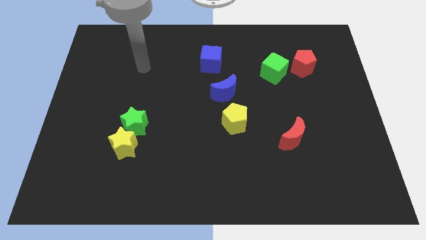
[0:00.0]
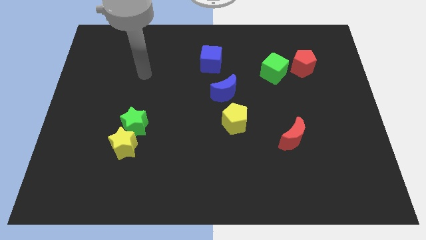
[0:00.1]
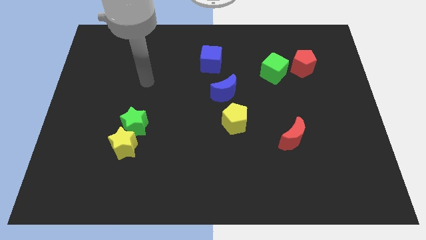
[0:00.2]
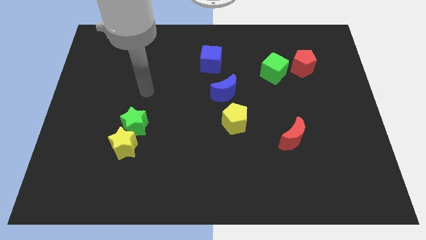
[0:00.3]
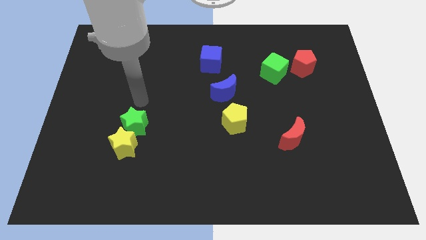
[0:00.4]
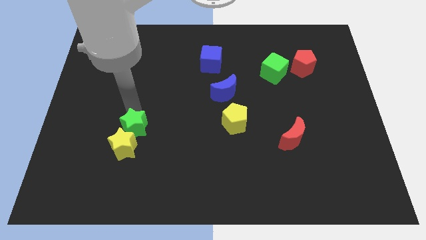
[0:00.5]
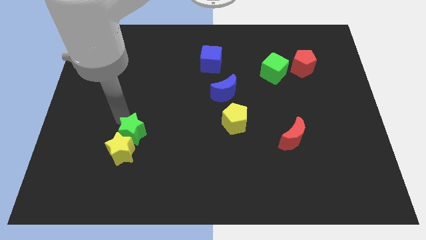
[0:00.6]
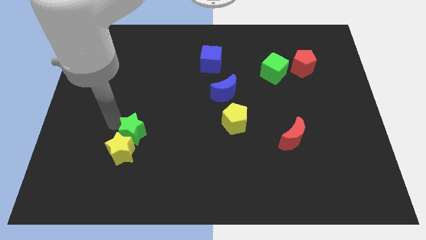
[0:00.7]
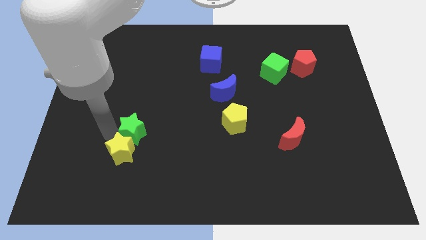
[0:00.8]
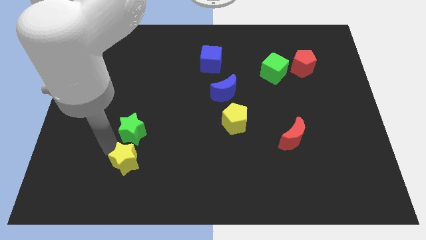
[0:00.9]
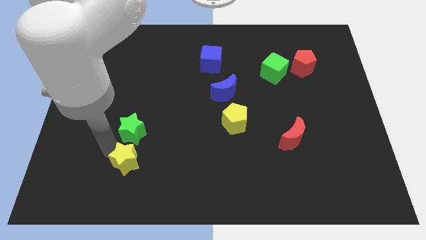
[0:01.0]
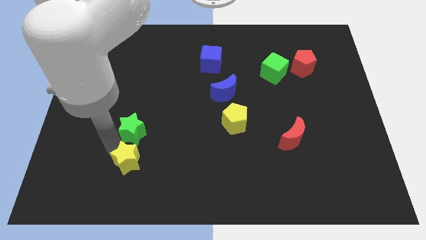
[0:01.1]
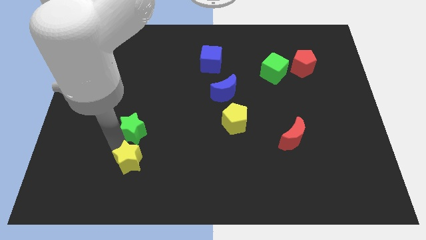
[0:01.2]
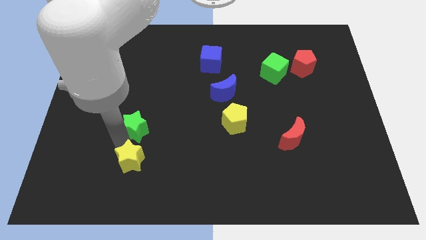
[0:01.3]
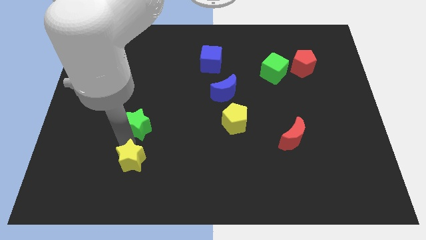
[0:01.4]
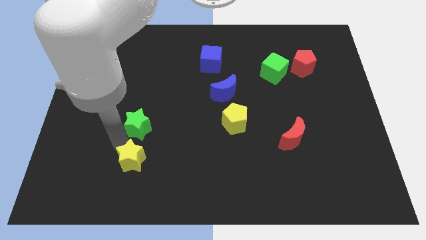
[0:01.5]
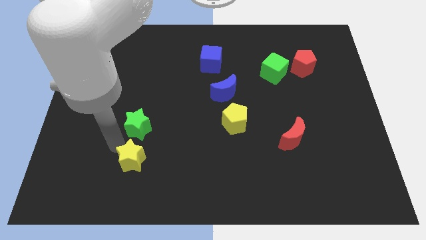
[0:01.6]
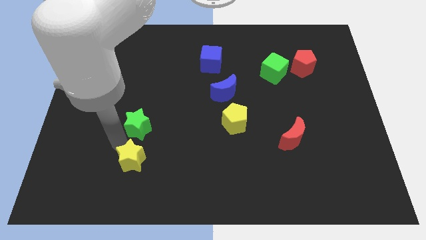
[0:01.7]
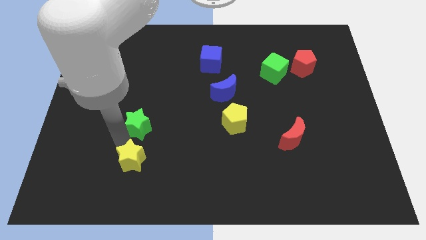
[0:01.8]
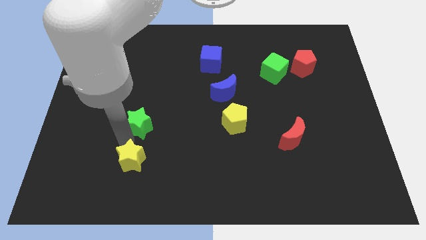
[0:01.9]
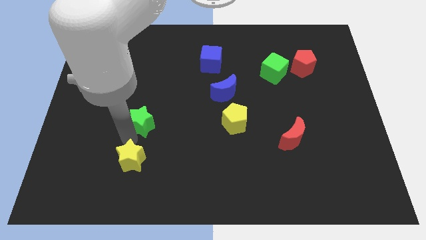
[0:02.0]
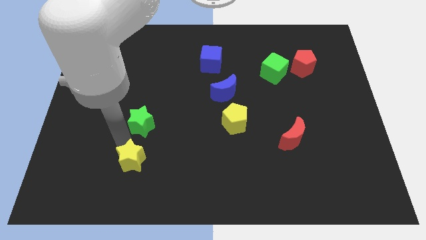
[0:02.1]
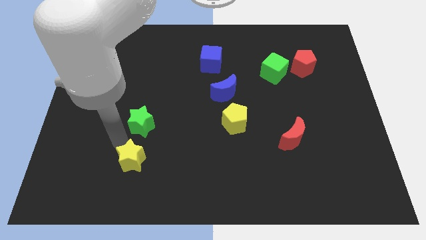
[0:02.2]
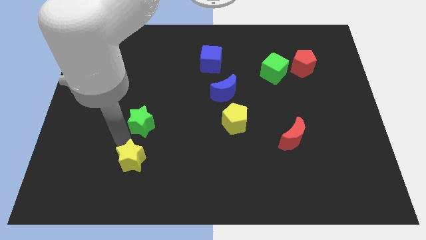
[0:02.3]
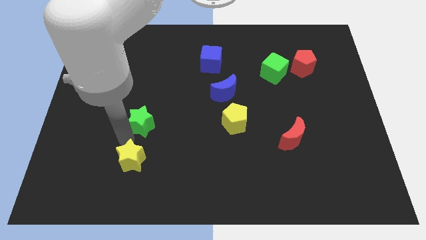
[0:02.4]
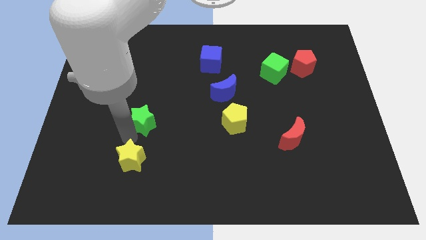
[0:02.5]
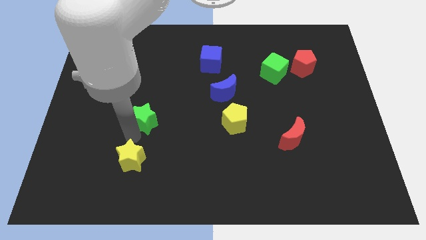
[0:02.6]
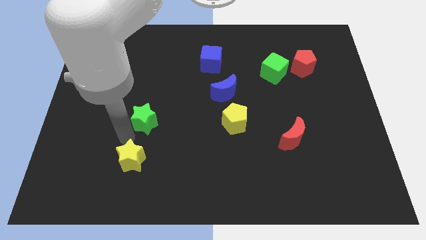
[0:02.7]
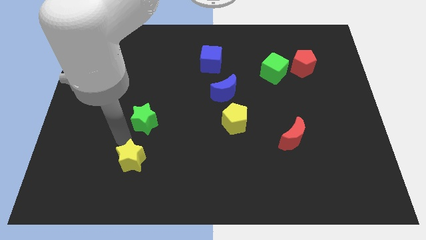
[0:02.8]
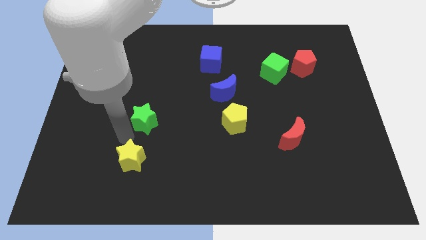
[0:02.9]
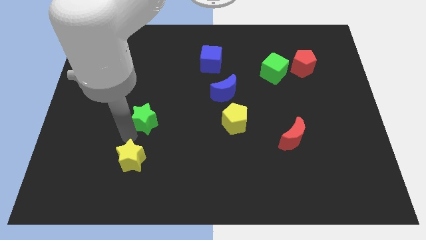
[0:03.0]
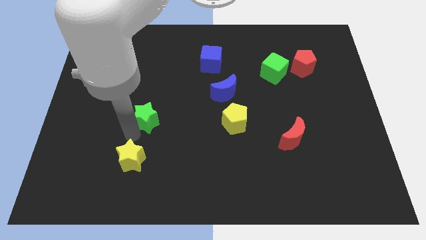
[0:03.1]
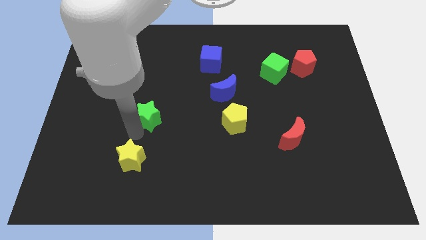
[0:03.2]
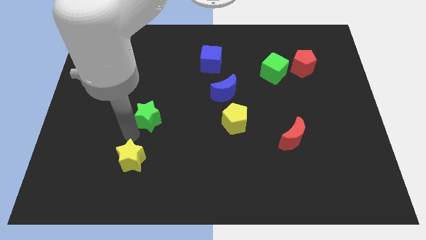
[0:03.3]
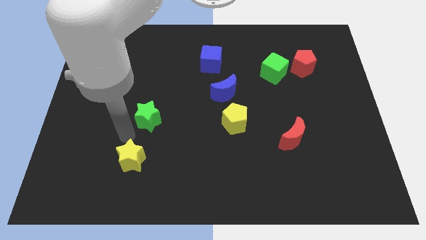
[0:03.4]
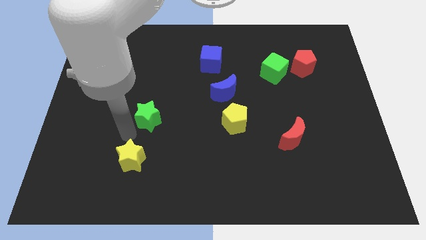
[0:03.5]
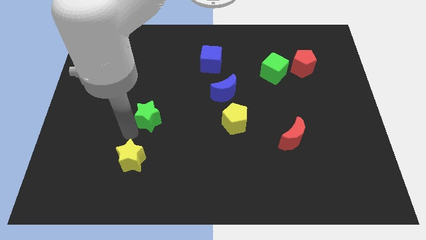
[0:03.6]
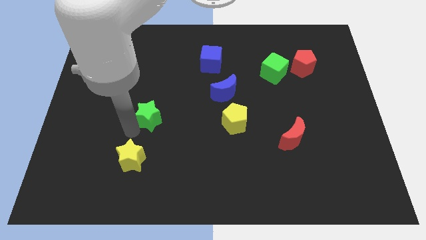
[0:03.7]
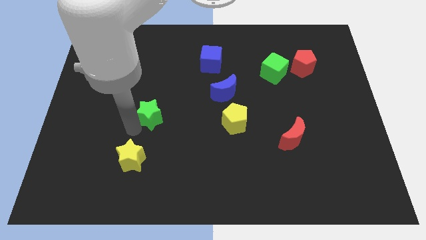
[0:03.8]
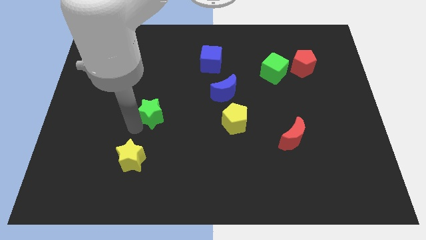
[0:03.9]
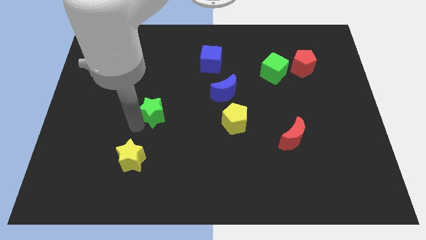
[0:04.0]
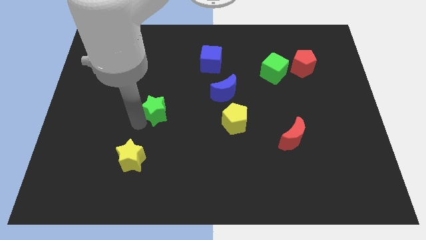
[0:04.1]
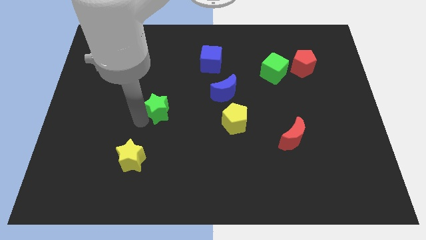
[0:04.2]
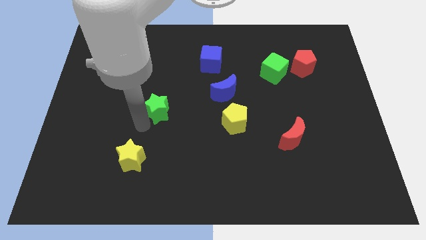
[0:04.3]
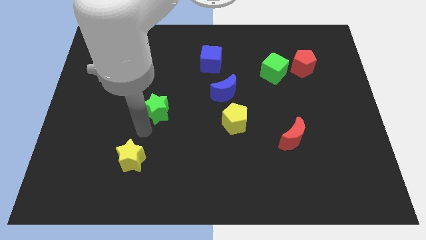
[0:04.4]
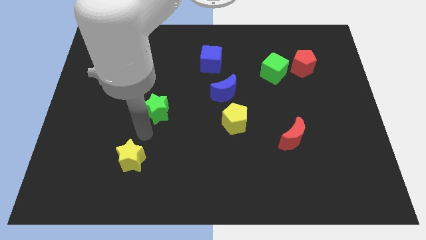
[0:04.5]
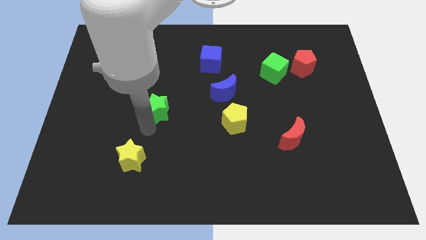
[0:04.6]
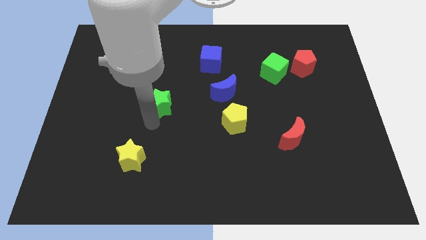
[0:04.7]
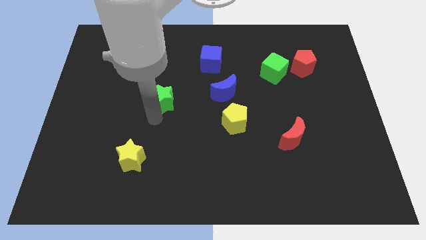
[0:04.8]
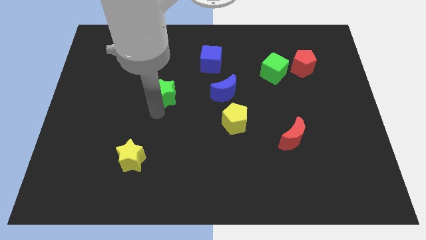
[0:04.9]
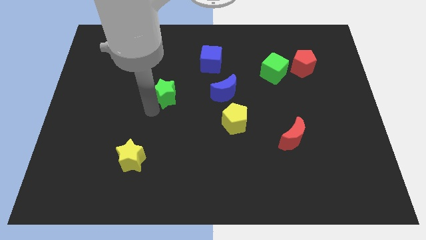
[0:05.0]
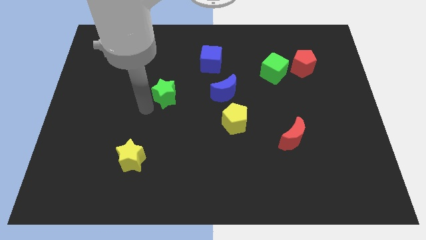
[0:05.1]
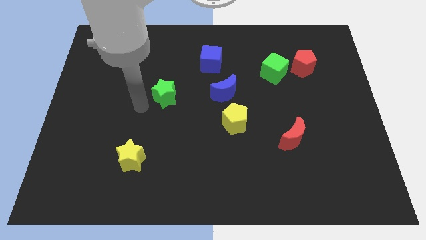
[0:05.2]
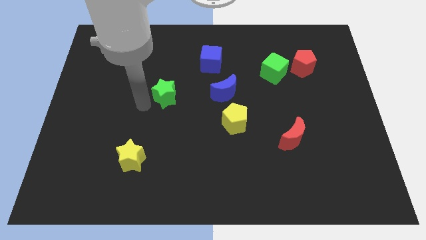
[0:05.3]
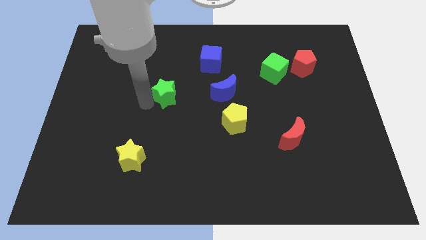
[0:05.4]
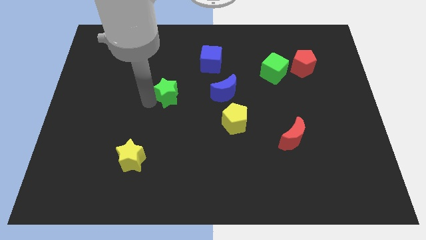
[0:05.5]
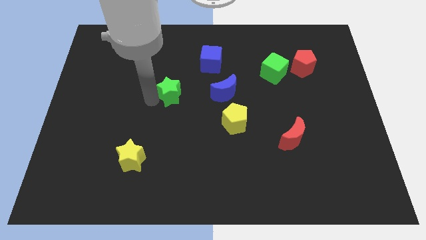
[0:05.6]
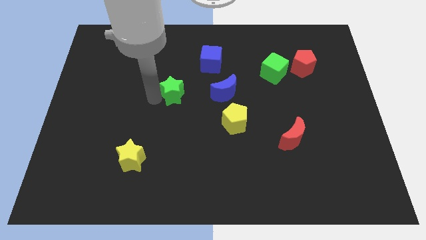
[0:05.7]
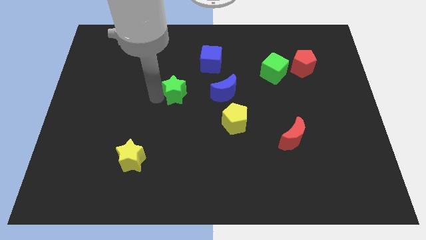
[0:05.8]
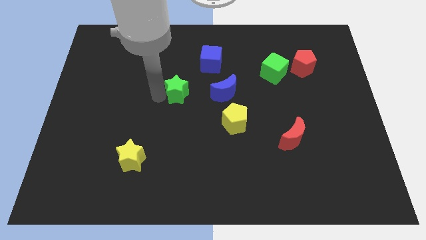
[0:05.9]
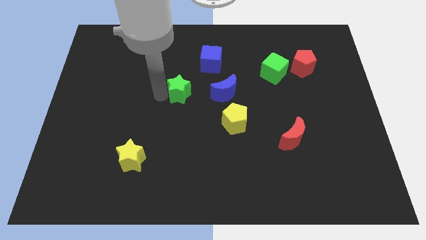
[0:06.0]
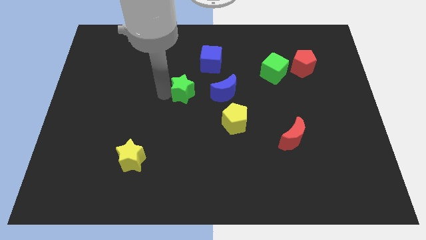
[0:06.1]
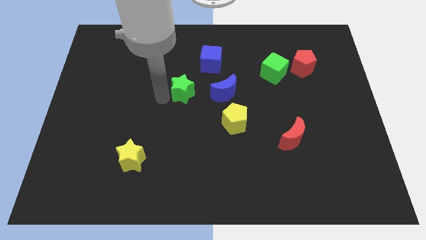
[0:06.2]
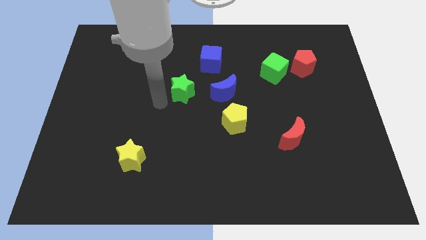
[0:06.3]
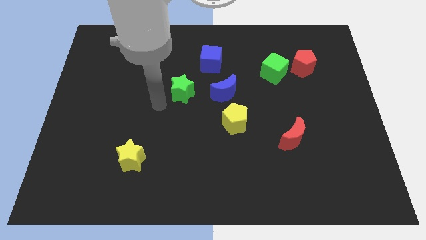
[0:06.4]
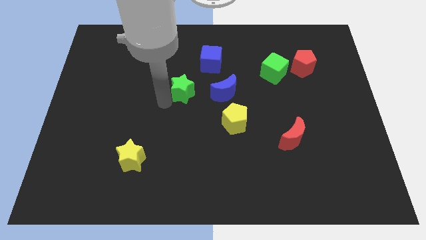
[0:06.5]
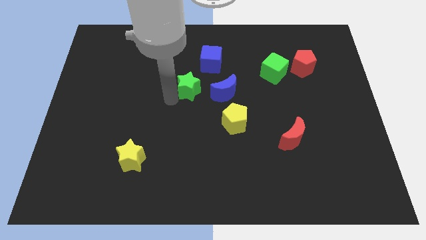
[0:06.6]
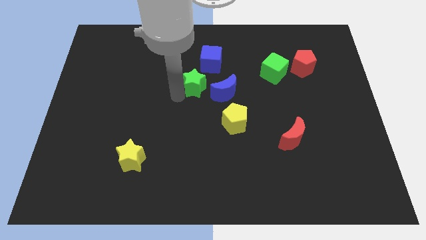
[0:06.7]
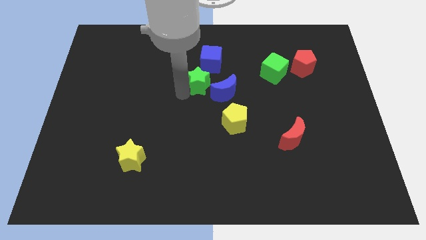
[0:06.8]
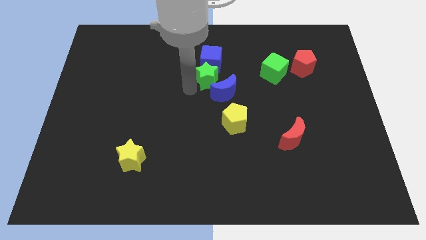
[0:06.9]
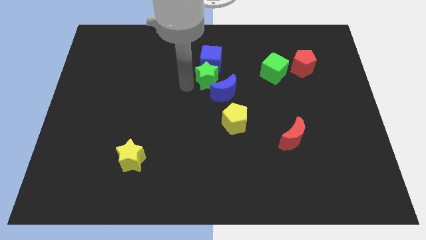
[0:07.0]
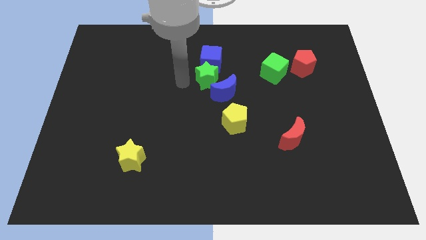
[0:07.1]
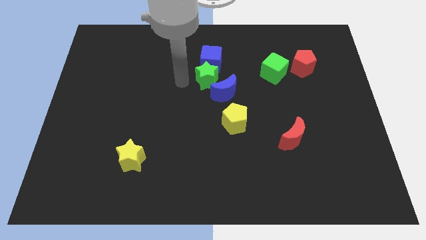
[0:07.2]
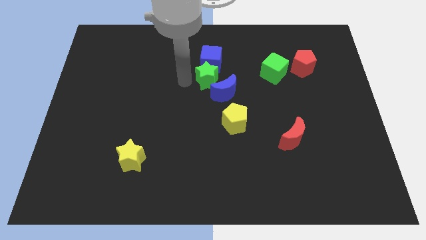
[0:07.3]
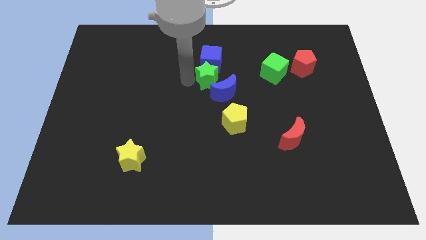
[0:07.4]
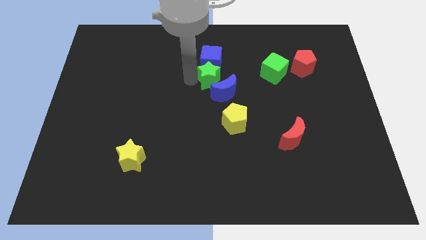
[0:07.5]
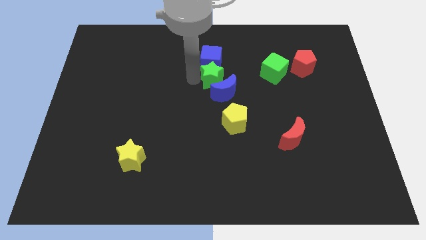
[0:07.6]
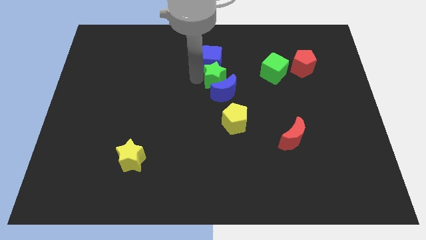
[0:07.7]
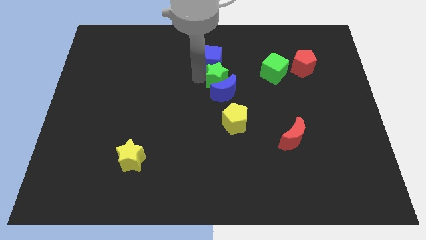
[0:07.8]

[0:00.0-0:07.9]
slide the green star to the top right of the blue moon

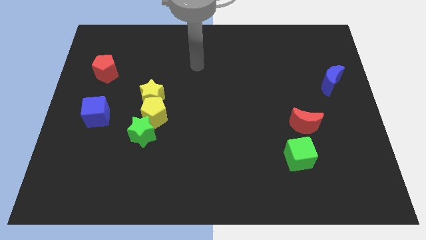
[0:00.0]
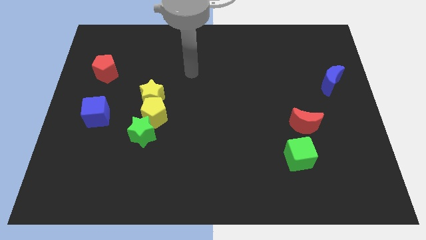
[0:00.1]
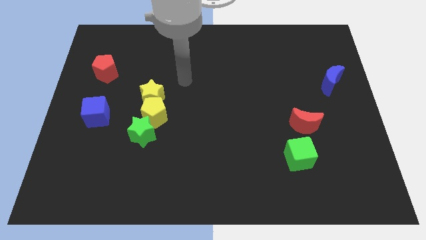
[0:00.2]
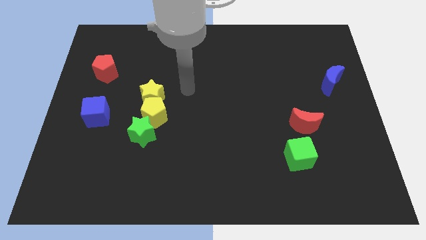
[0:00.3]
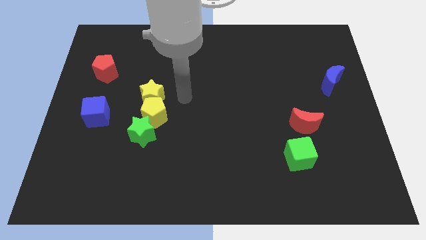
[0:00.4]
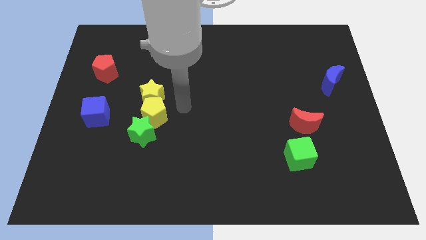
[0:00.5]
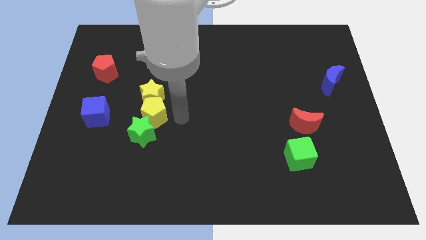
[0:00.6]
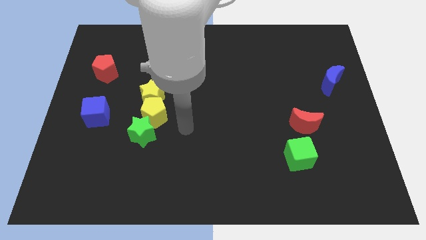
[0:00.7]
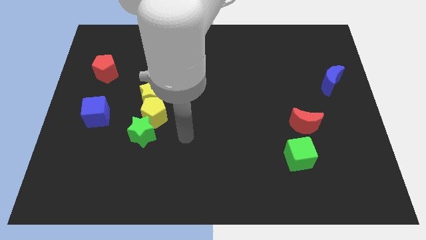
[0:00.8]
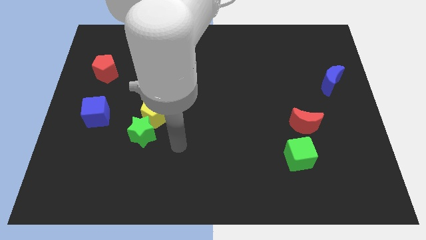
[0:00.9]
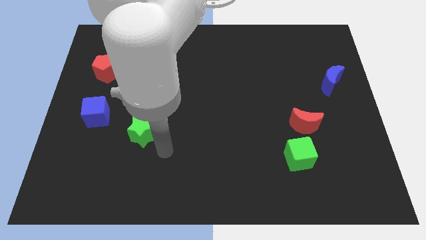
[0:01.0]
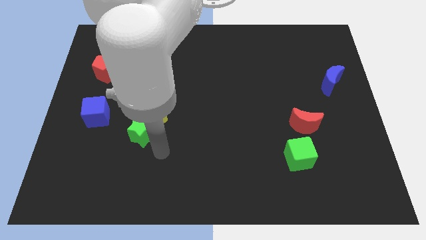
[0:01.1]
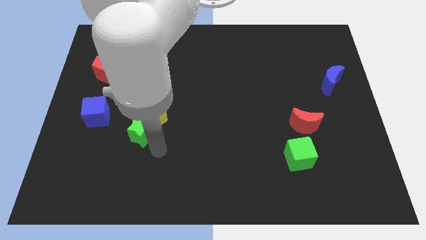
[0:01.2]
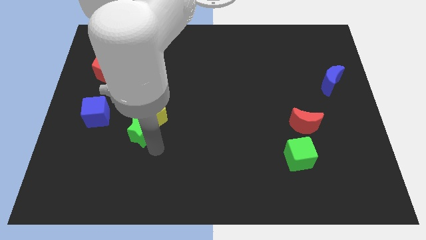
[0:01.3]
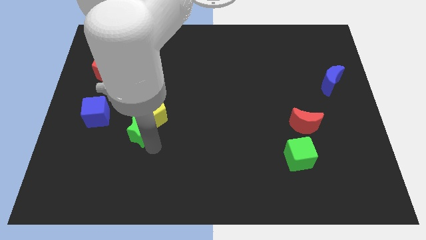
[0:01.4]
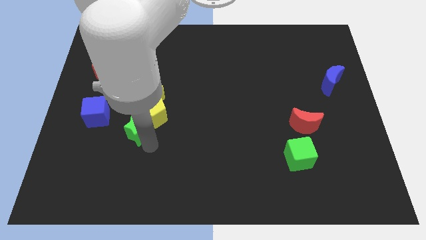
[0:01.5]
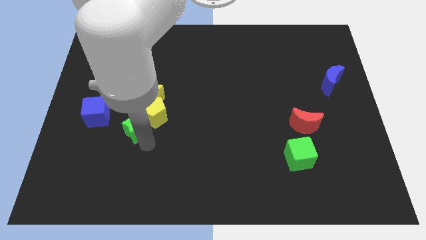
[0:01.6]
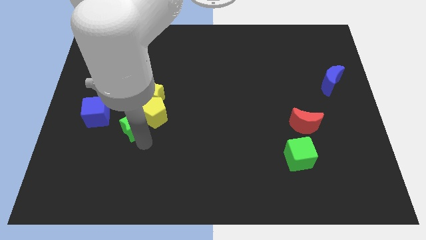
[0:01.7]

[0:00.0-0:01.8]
push the green star diagonally down and to the left of the yellow star
